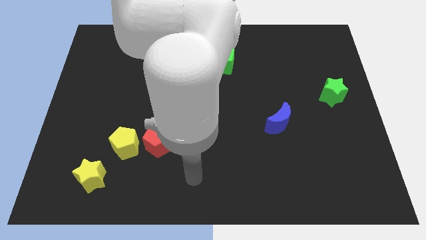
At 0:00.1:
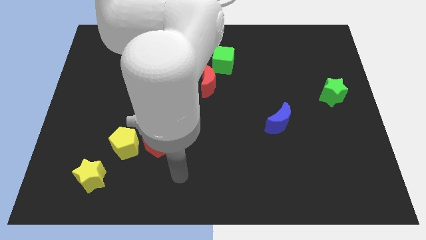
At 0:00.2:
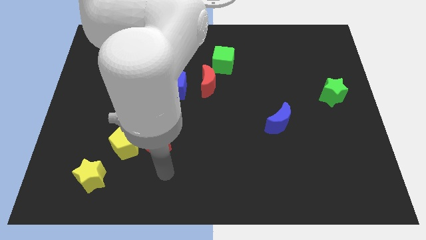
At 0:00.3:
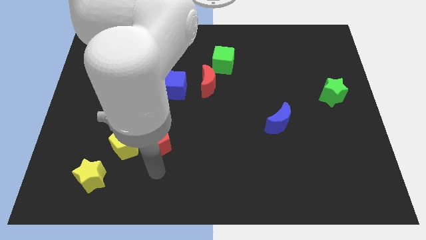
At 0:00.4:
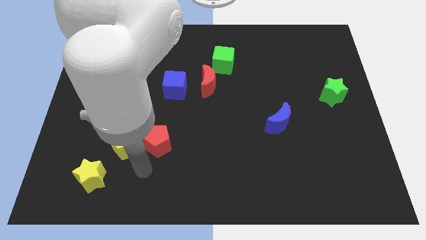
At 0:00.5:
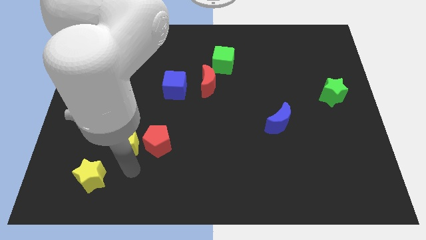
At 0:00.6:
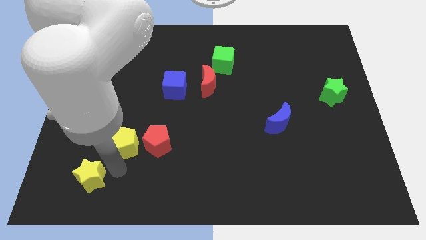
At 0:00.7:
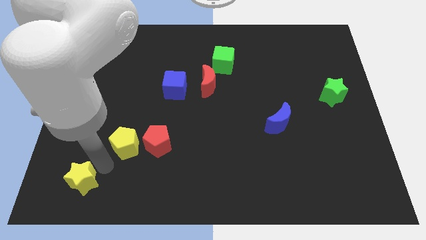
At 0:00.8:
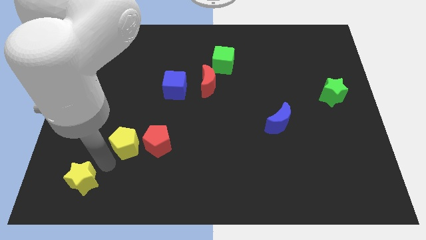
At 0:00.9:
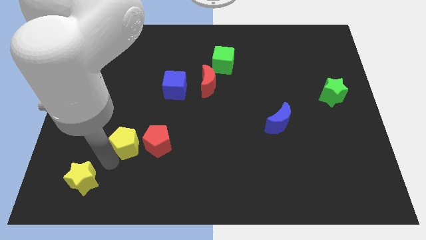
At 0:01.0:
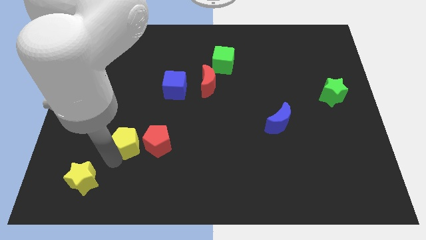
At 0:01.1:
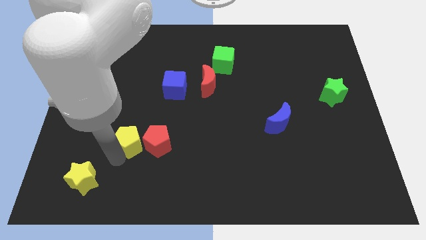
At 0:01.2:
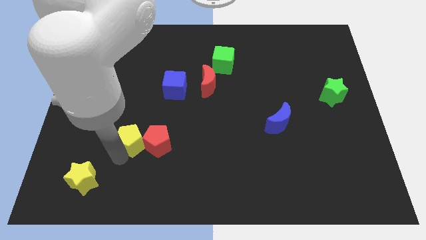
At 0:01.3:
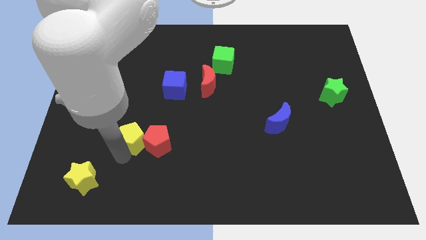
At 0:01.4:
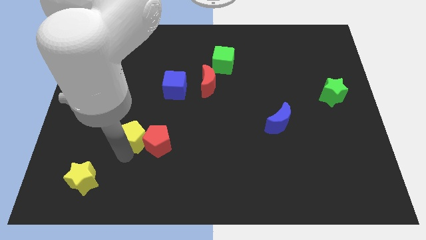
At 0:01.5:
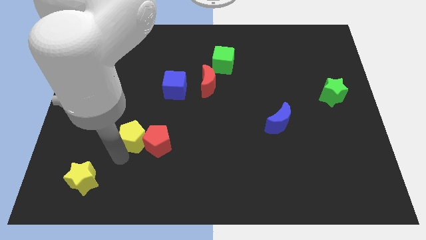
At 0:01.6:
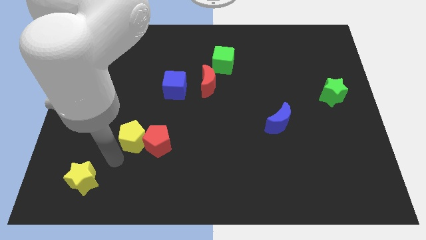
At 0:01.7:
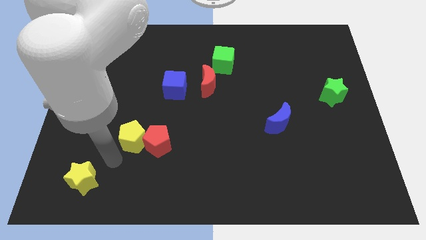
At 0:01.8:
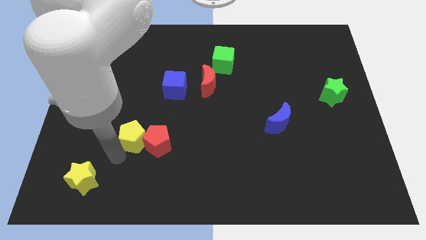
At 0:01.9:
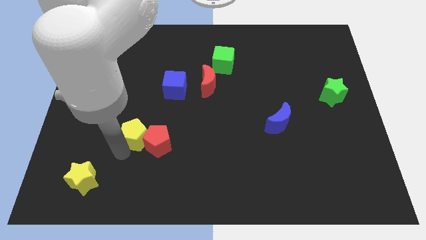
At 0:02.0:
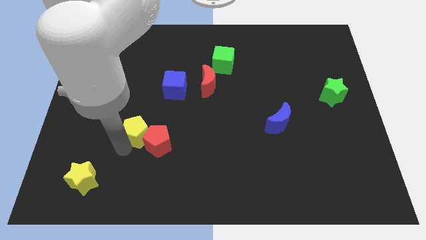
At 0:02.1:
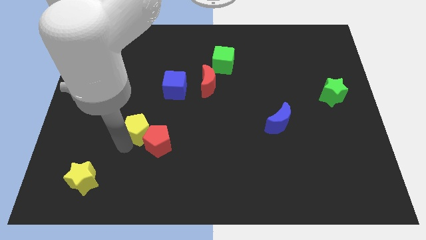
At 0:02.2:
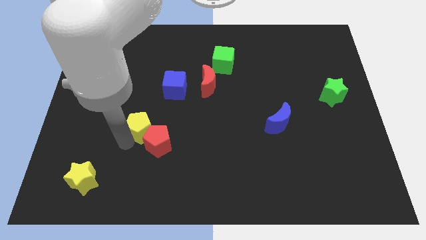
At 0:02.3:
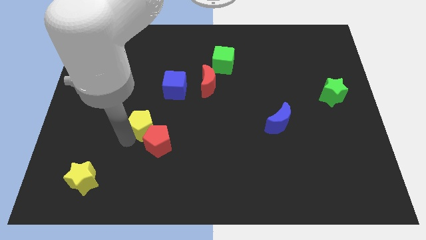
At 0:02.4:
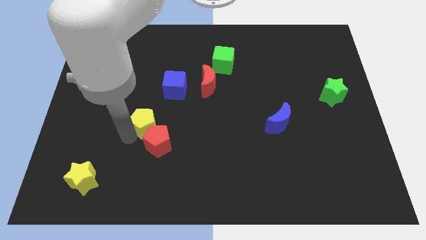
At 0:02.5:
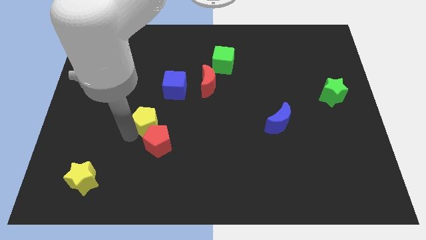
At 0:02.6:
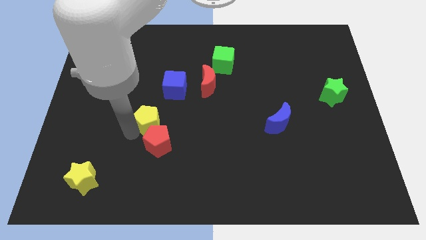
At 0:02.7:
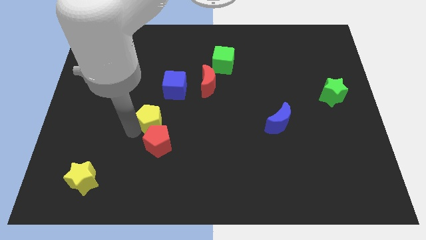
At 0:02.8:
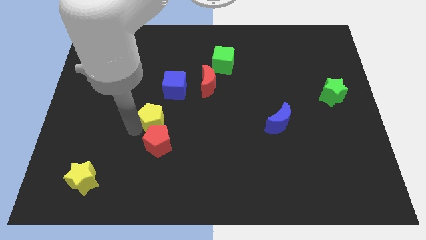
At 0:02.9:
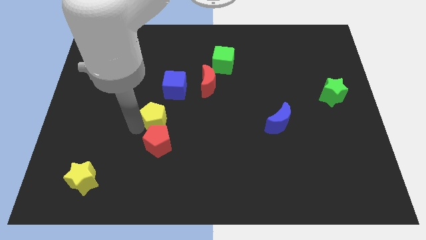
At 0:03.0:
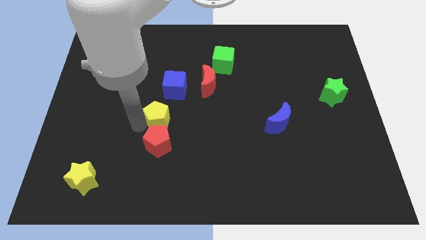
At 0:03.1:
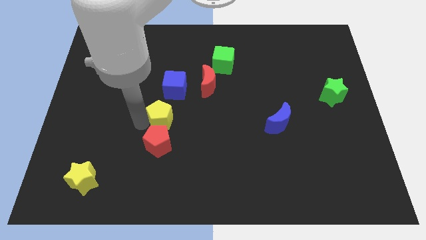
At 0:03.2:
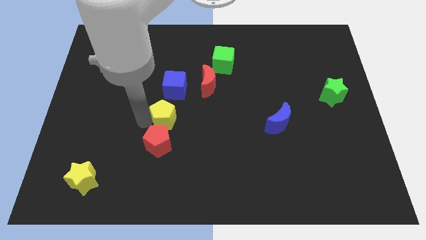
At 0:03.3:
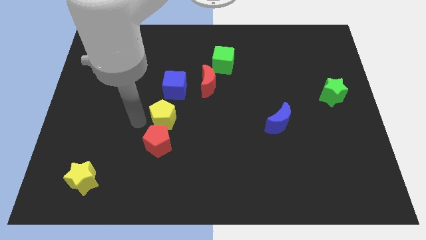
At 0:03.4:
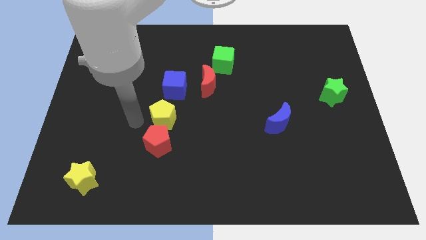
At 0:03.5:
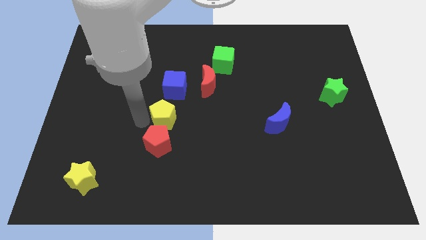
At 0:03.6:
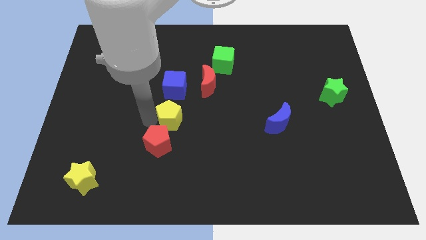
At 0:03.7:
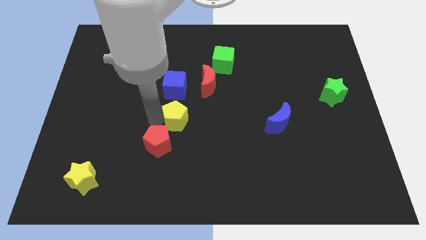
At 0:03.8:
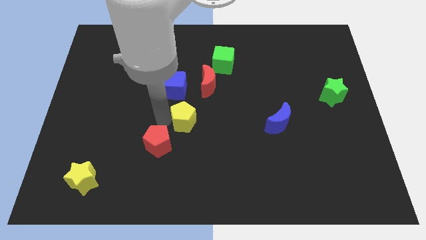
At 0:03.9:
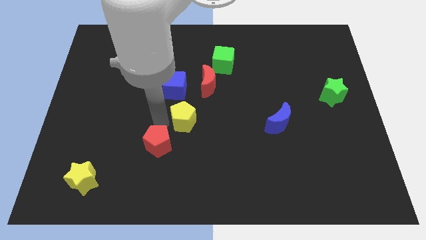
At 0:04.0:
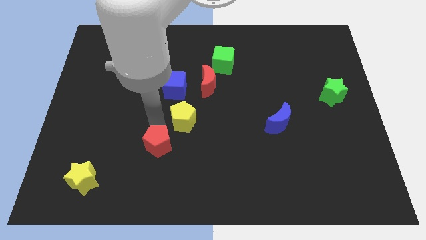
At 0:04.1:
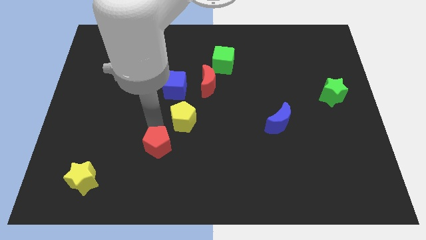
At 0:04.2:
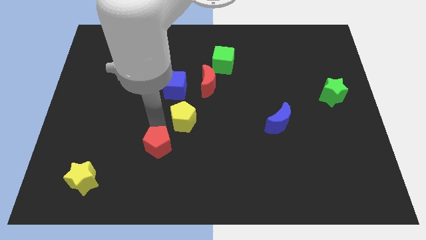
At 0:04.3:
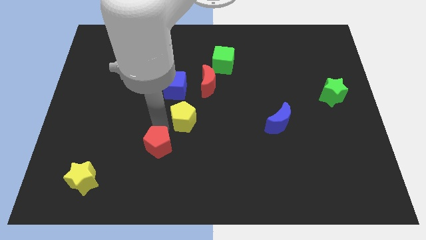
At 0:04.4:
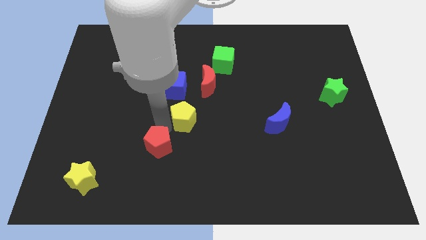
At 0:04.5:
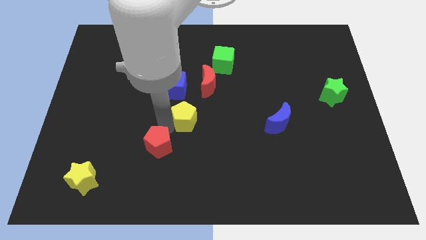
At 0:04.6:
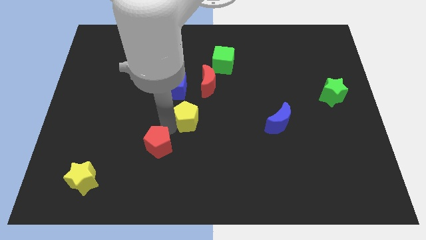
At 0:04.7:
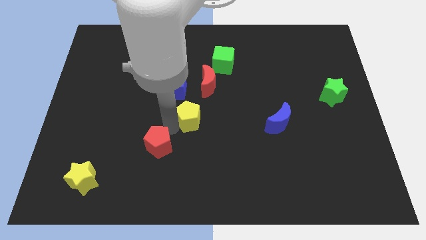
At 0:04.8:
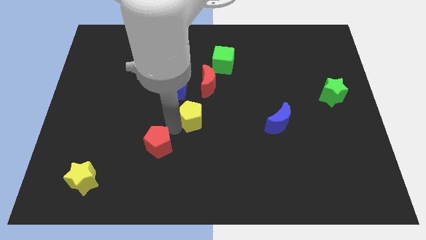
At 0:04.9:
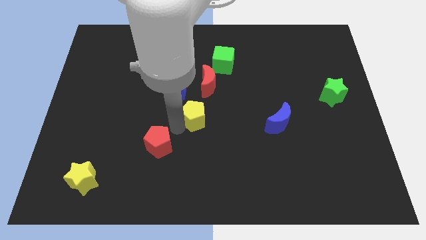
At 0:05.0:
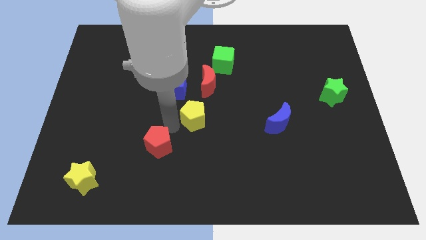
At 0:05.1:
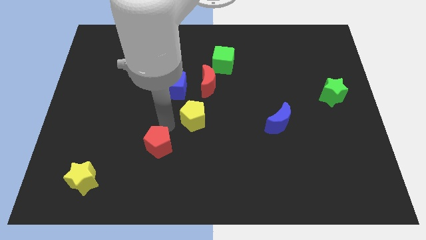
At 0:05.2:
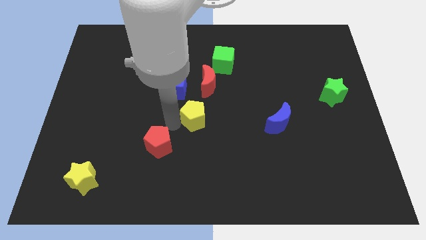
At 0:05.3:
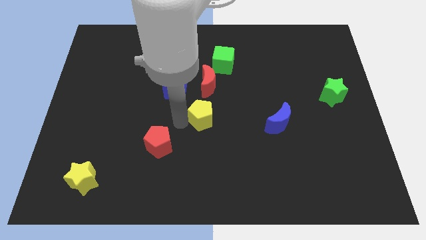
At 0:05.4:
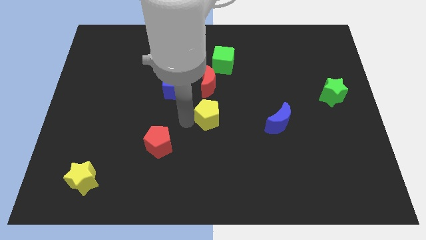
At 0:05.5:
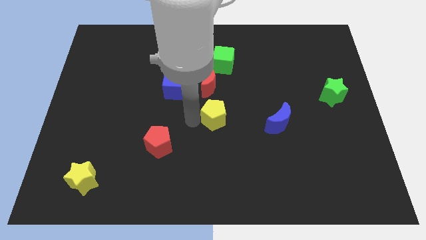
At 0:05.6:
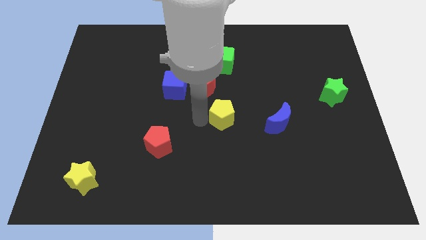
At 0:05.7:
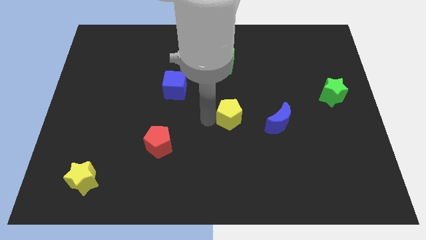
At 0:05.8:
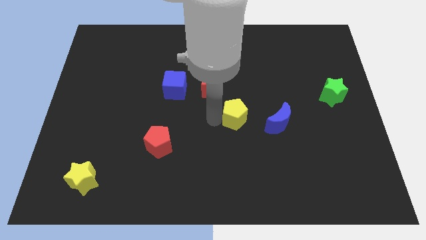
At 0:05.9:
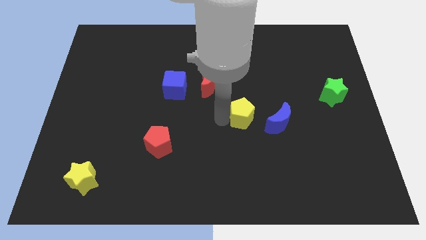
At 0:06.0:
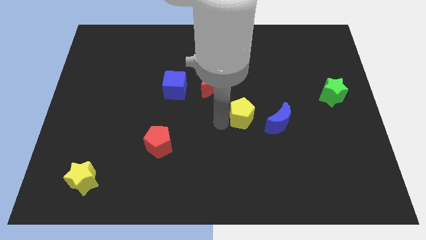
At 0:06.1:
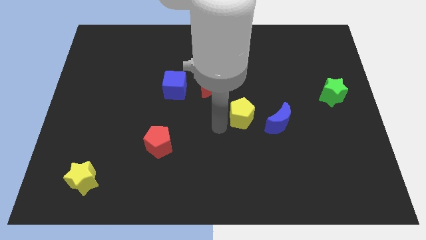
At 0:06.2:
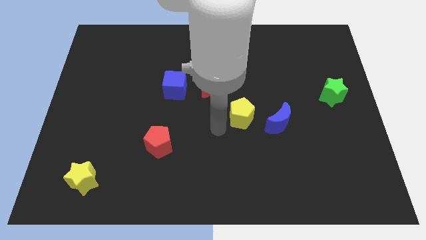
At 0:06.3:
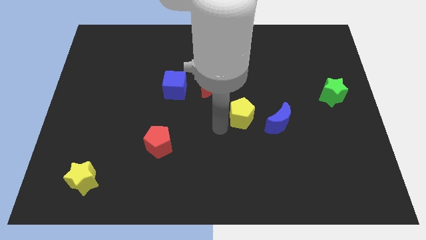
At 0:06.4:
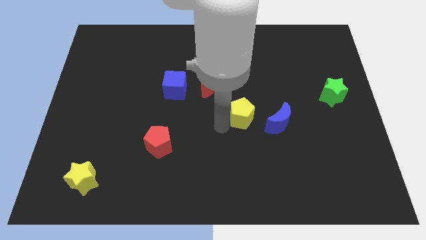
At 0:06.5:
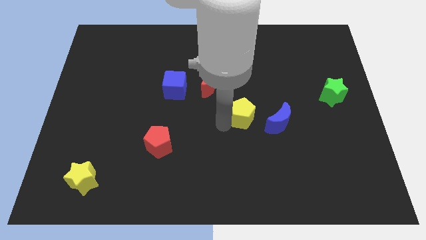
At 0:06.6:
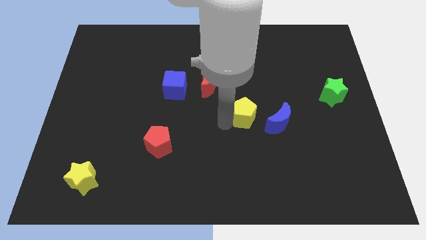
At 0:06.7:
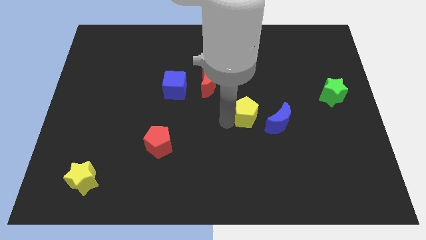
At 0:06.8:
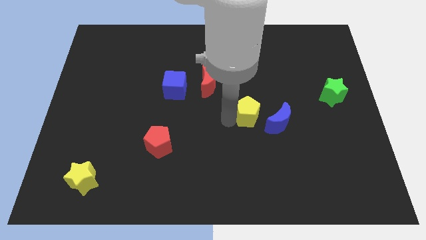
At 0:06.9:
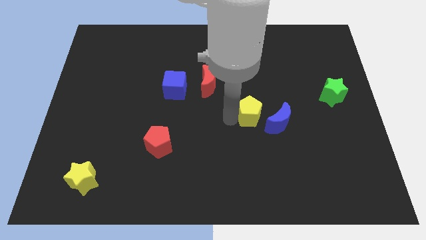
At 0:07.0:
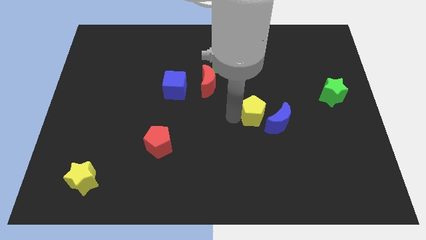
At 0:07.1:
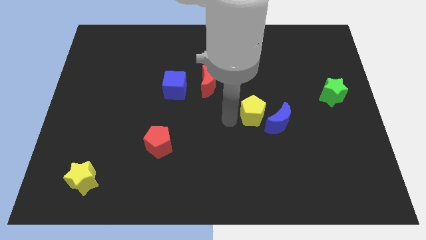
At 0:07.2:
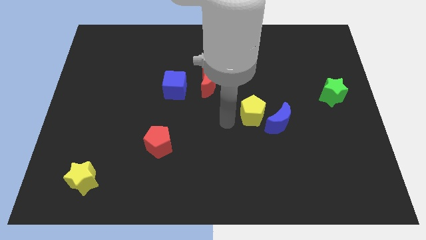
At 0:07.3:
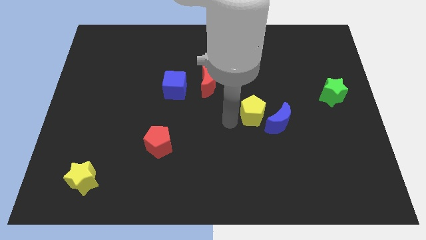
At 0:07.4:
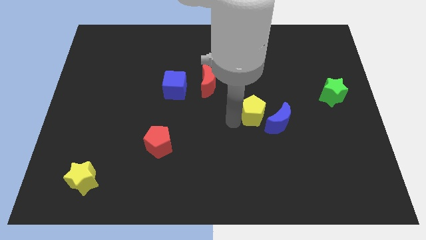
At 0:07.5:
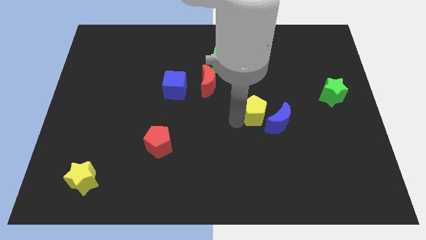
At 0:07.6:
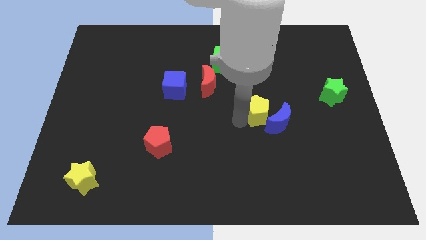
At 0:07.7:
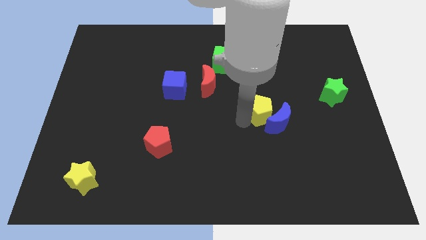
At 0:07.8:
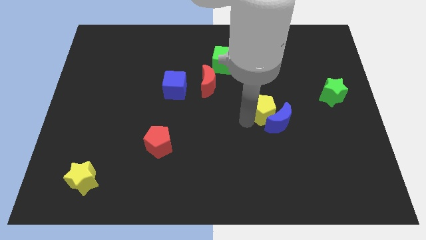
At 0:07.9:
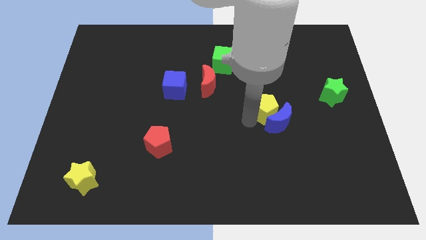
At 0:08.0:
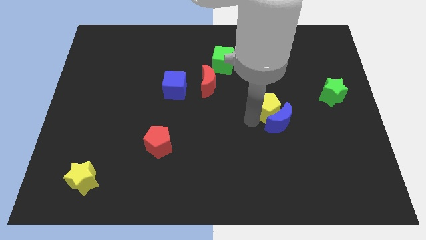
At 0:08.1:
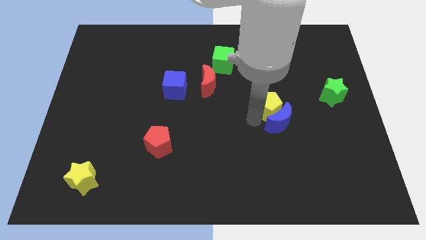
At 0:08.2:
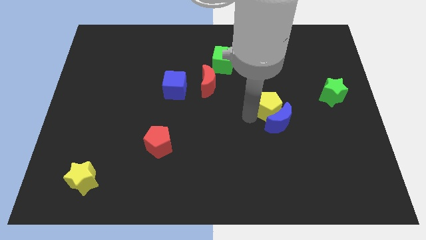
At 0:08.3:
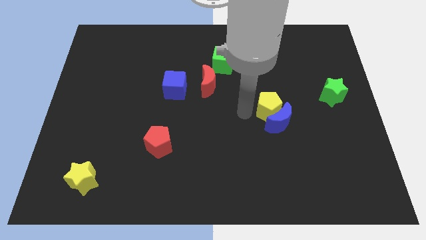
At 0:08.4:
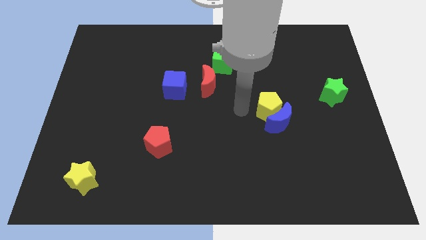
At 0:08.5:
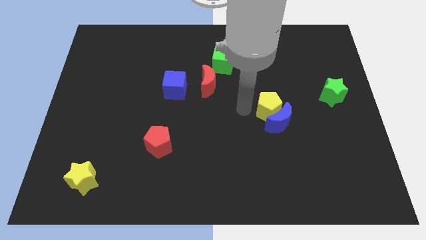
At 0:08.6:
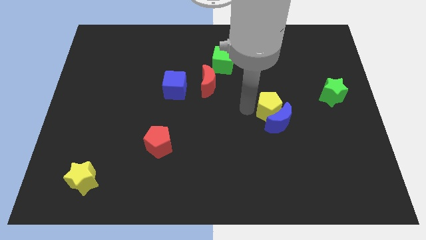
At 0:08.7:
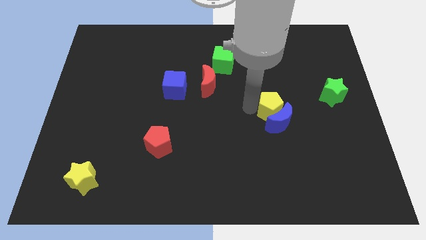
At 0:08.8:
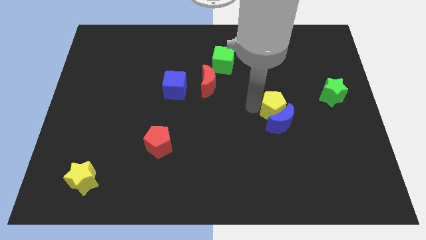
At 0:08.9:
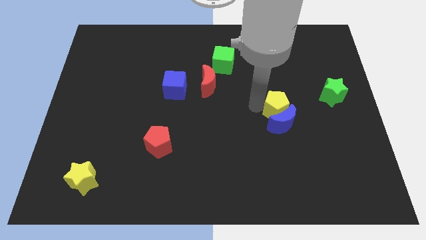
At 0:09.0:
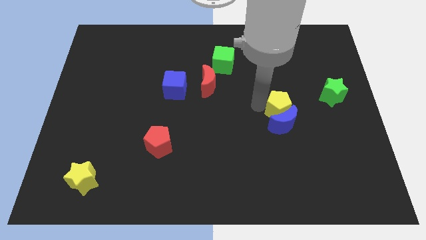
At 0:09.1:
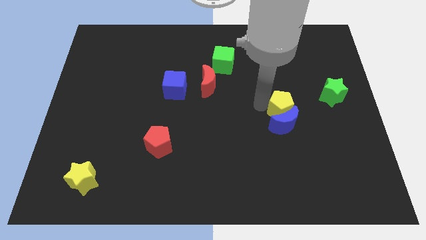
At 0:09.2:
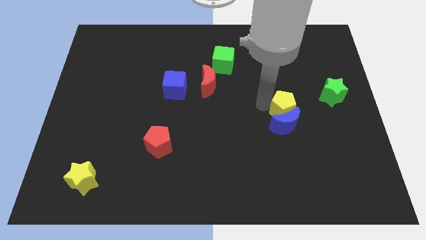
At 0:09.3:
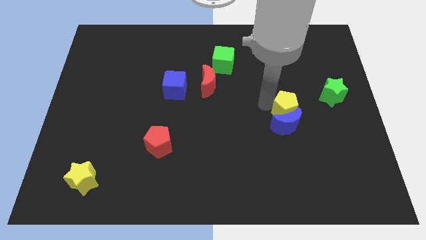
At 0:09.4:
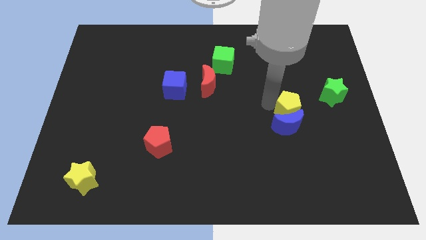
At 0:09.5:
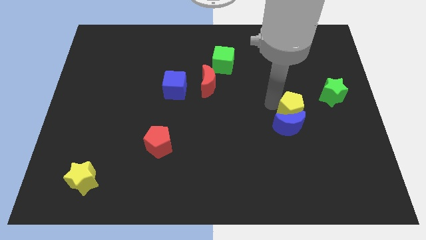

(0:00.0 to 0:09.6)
push the yellow pentagon to the bottom left of the green star
